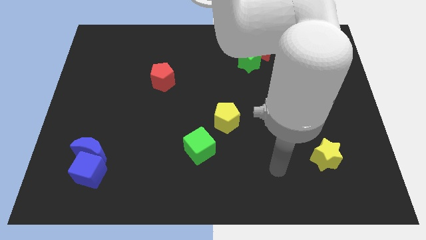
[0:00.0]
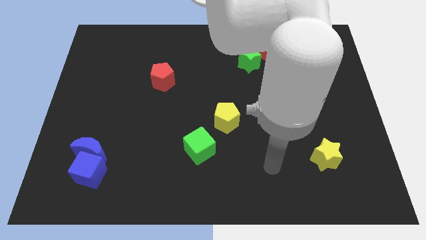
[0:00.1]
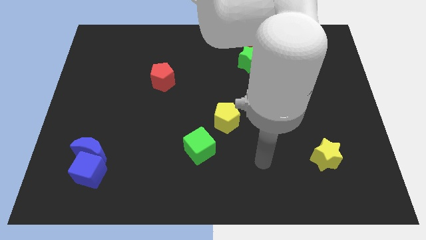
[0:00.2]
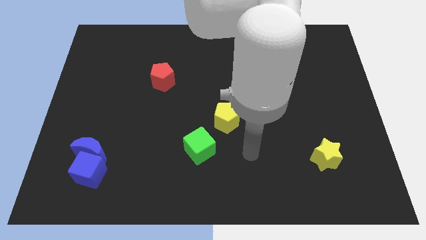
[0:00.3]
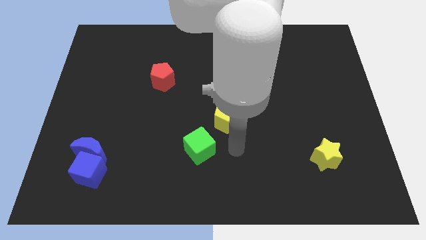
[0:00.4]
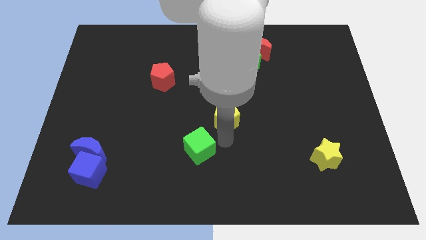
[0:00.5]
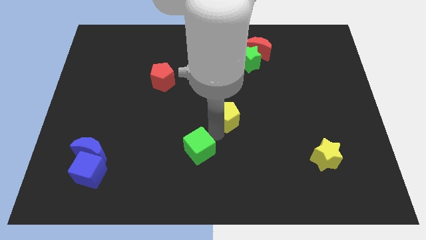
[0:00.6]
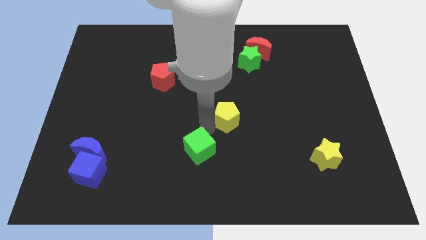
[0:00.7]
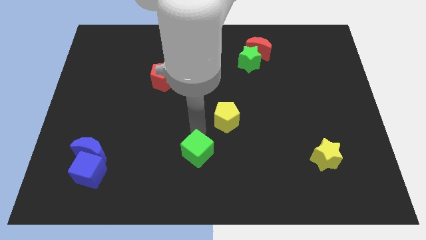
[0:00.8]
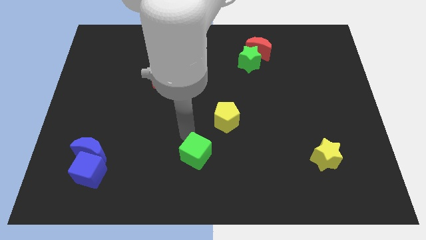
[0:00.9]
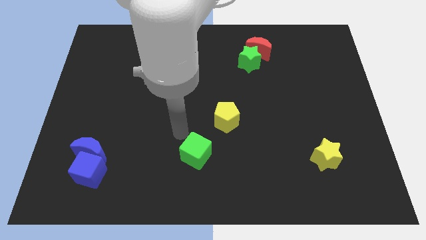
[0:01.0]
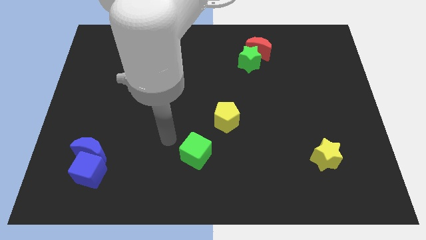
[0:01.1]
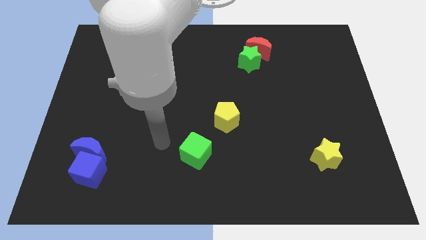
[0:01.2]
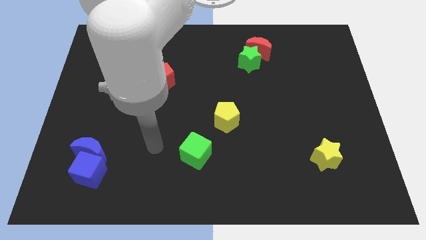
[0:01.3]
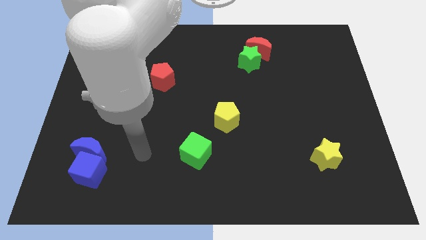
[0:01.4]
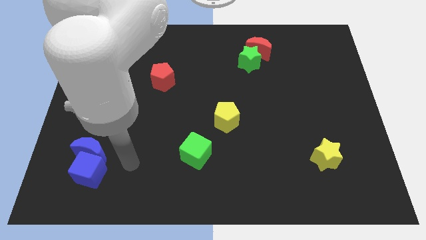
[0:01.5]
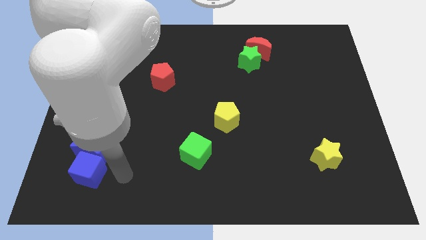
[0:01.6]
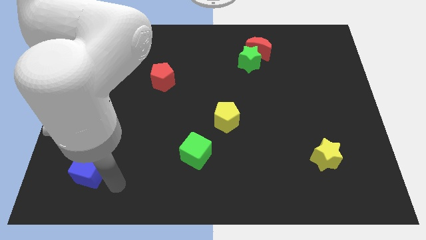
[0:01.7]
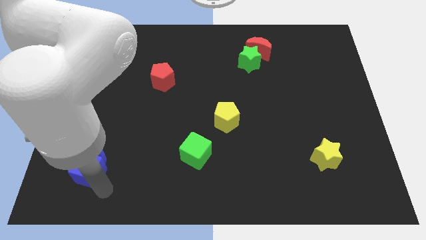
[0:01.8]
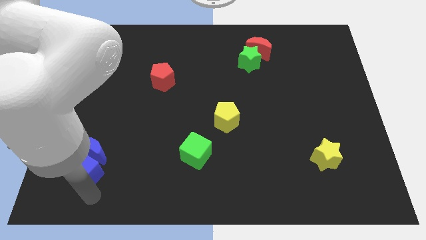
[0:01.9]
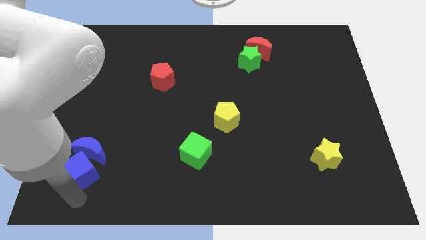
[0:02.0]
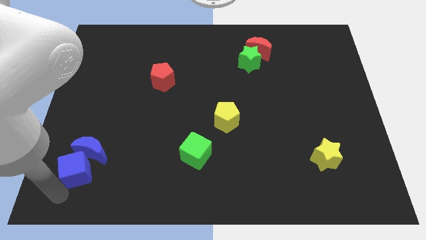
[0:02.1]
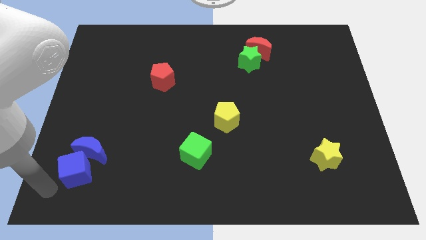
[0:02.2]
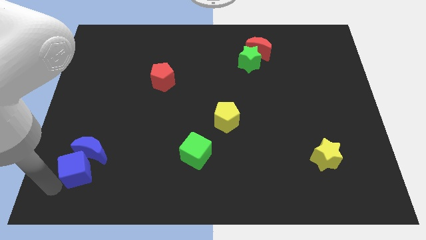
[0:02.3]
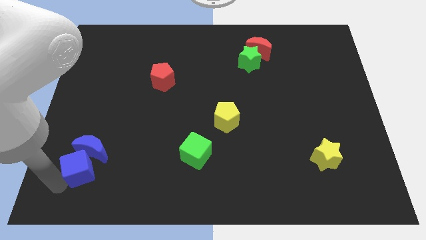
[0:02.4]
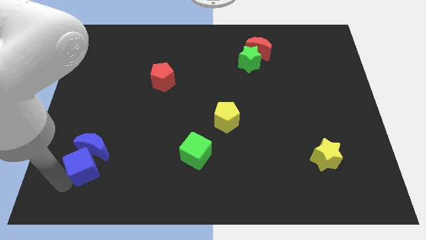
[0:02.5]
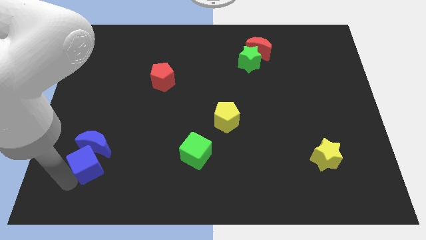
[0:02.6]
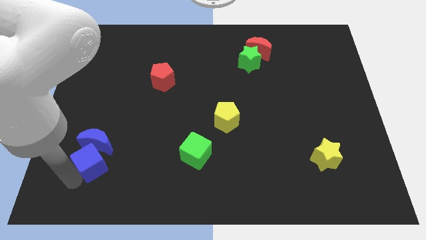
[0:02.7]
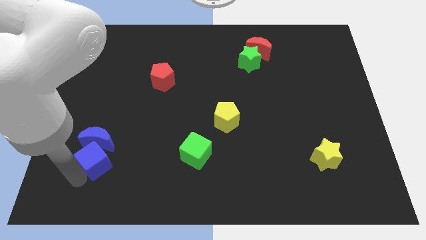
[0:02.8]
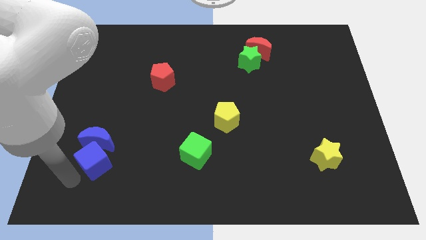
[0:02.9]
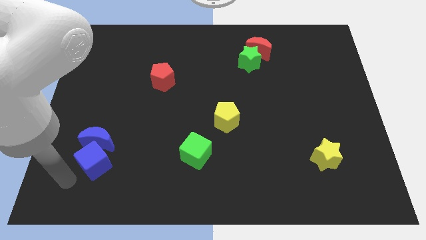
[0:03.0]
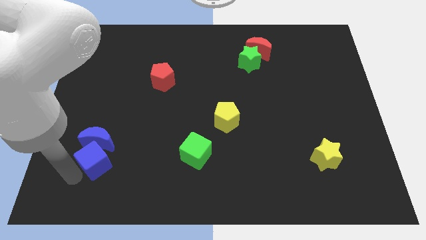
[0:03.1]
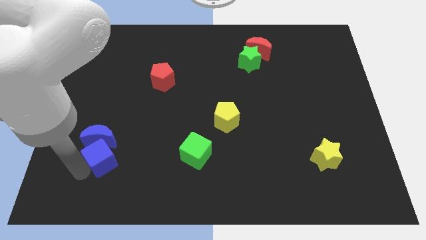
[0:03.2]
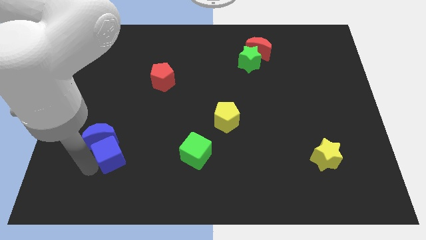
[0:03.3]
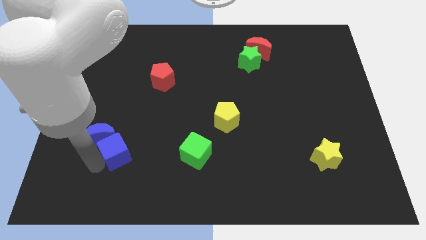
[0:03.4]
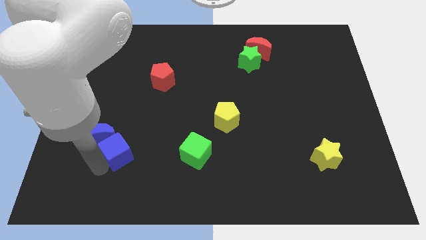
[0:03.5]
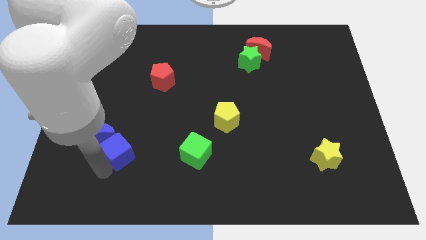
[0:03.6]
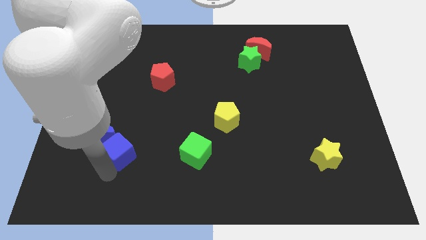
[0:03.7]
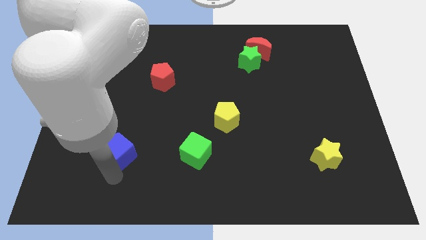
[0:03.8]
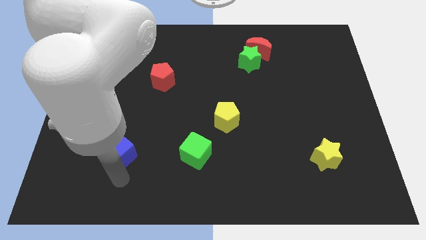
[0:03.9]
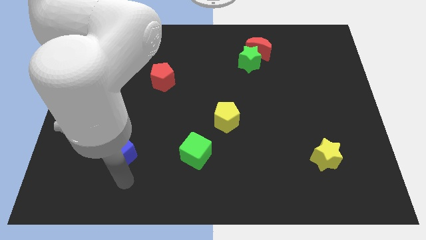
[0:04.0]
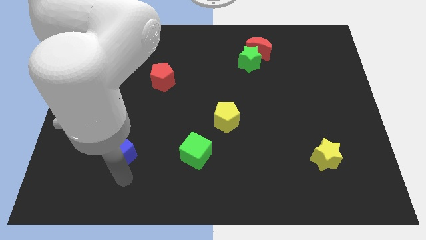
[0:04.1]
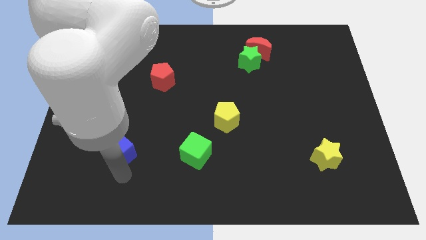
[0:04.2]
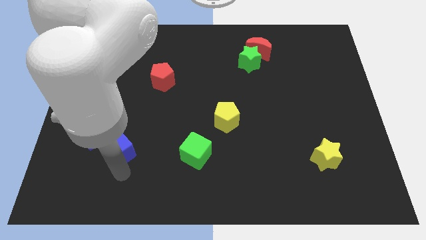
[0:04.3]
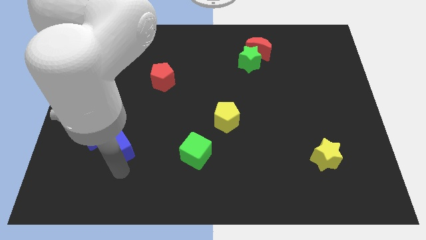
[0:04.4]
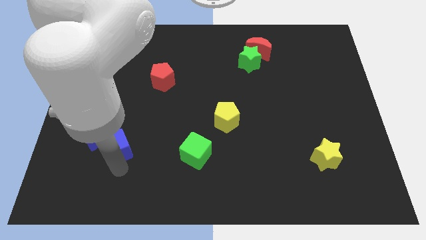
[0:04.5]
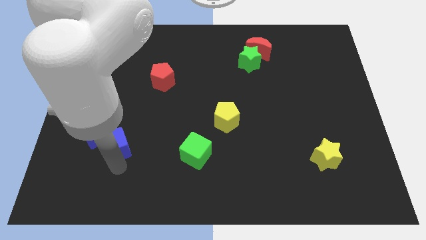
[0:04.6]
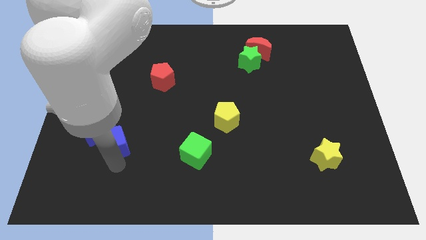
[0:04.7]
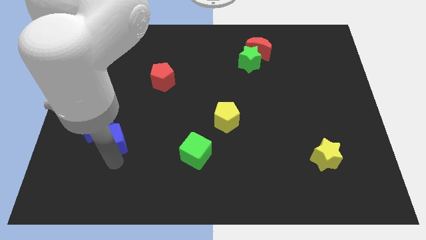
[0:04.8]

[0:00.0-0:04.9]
slide the blue cube a little bit upwards

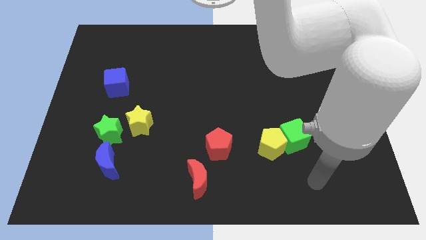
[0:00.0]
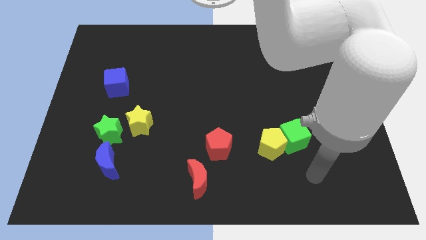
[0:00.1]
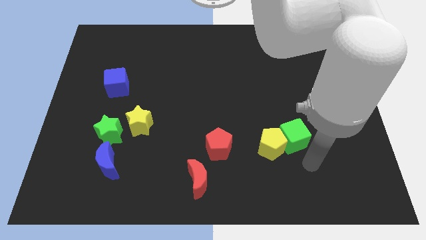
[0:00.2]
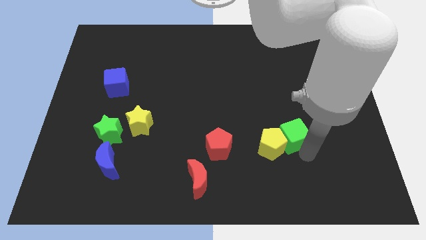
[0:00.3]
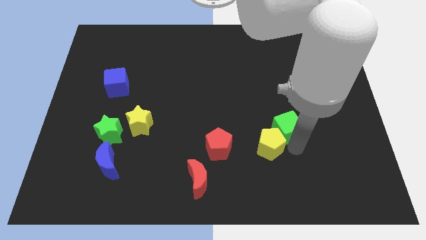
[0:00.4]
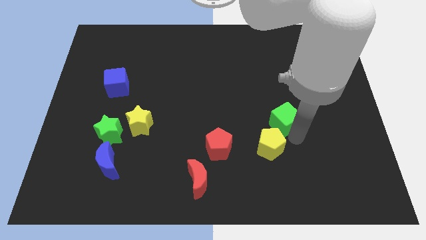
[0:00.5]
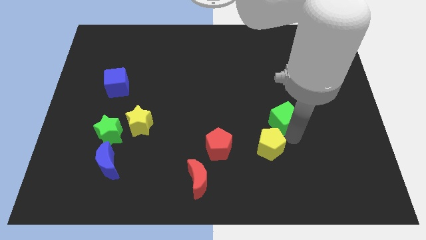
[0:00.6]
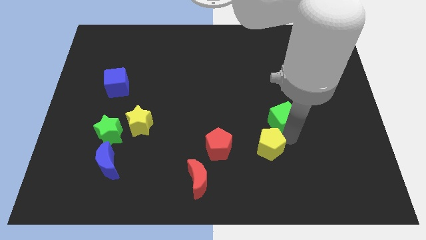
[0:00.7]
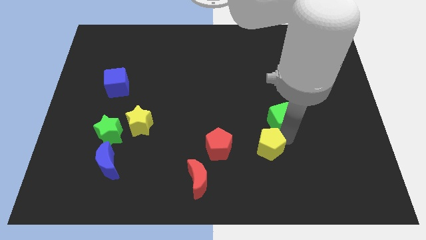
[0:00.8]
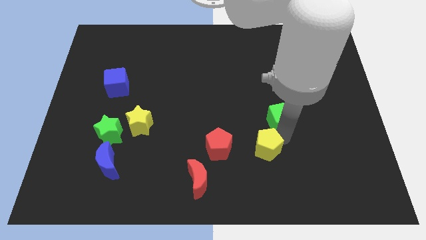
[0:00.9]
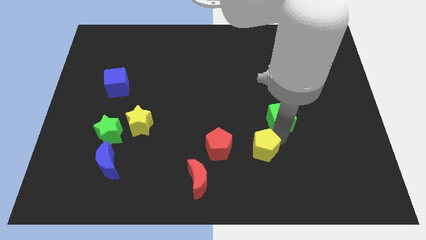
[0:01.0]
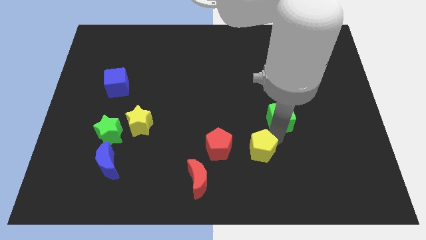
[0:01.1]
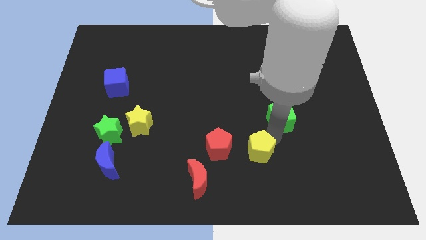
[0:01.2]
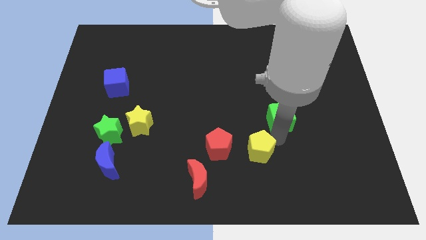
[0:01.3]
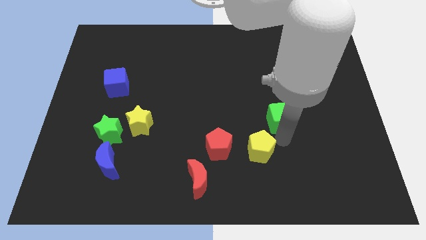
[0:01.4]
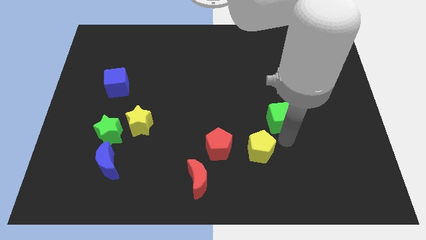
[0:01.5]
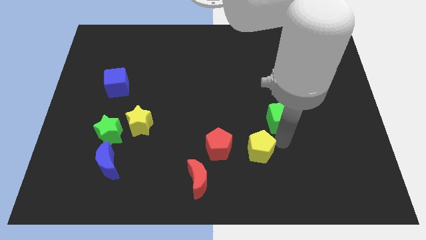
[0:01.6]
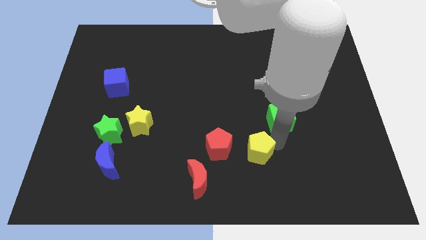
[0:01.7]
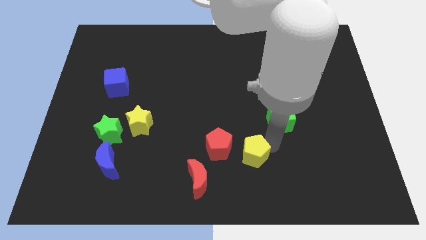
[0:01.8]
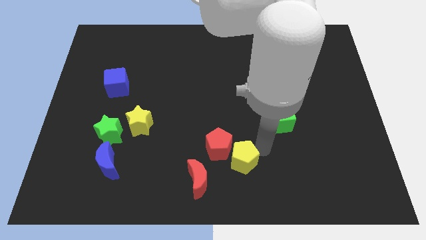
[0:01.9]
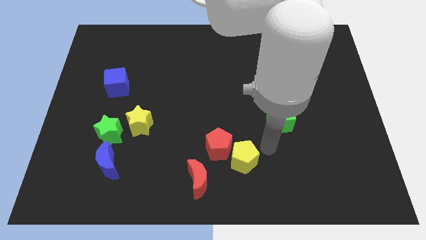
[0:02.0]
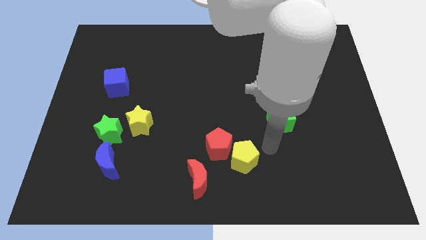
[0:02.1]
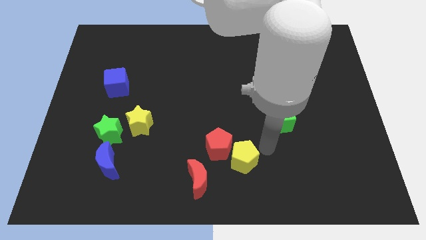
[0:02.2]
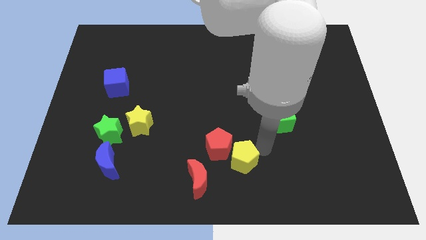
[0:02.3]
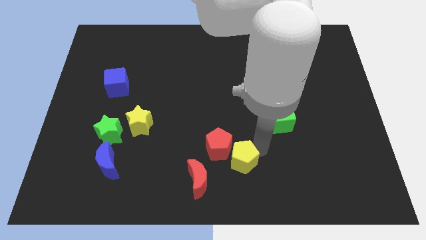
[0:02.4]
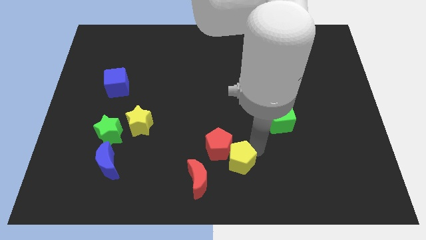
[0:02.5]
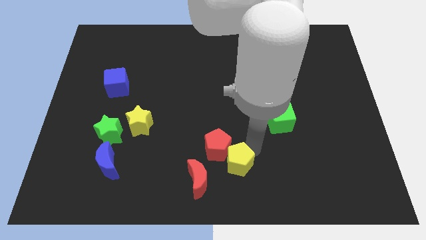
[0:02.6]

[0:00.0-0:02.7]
slightly slide the yellow pentagon to the left

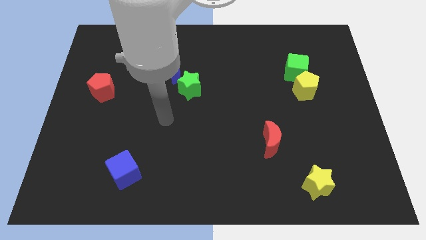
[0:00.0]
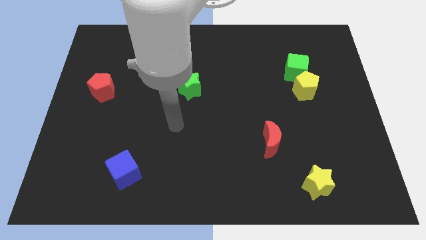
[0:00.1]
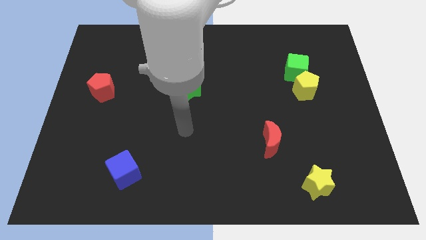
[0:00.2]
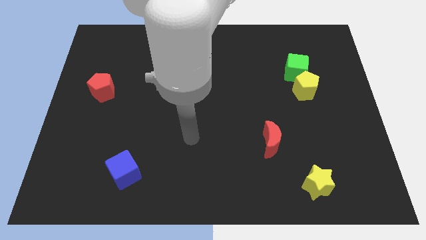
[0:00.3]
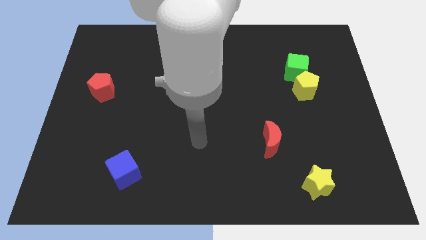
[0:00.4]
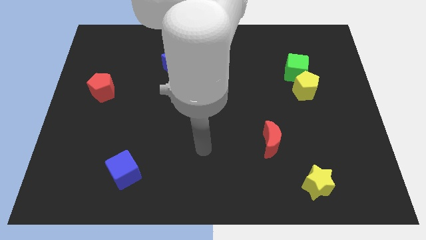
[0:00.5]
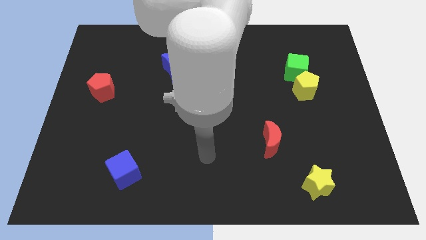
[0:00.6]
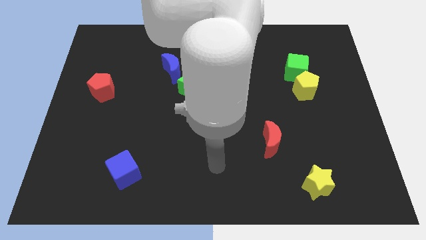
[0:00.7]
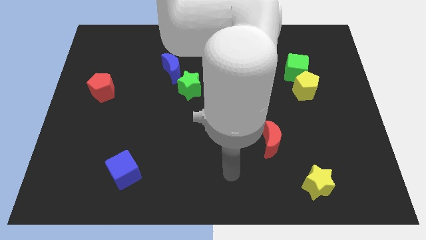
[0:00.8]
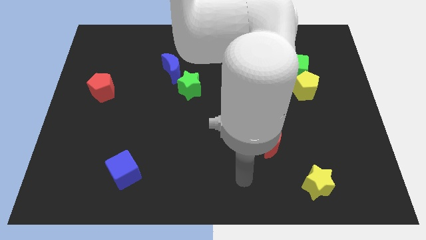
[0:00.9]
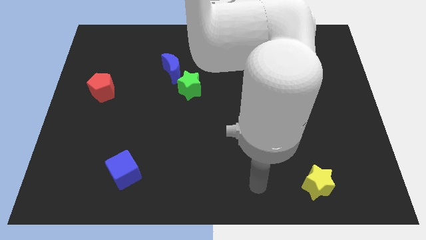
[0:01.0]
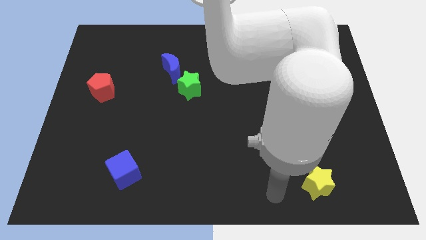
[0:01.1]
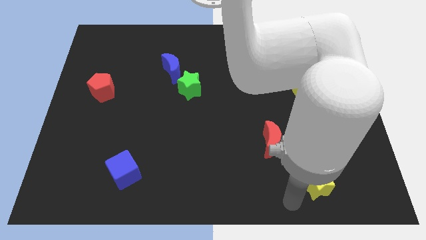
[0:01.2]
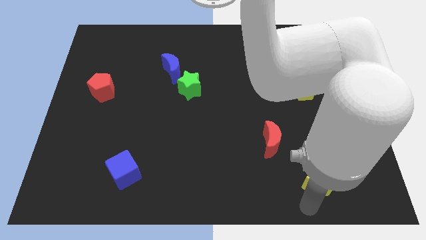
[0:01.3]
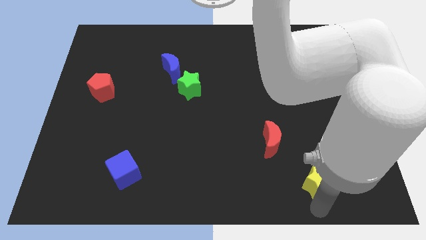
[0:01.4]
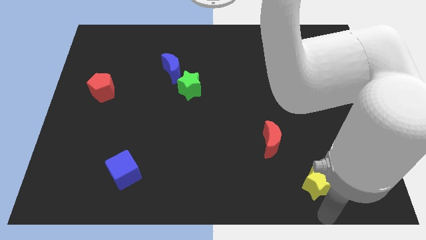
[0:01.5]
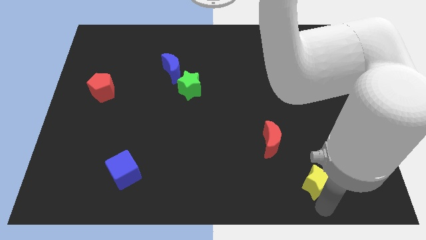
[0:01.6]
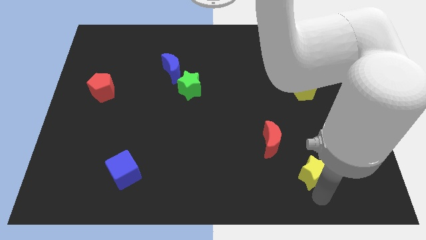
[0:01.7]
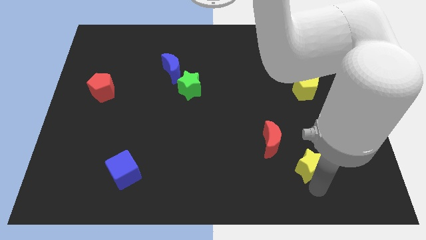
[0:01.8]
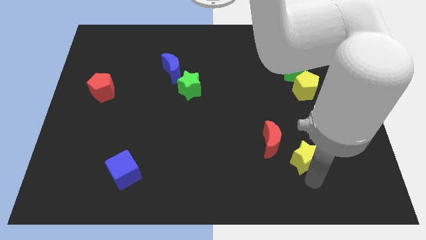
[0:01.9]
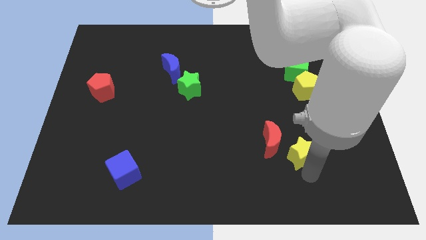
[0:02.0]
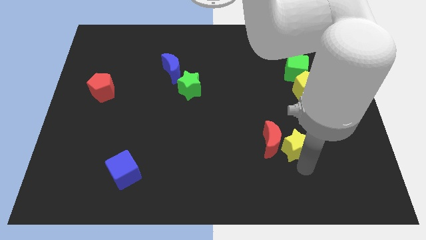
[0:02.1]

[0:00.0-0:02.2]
push the yellow star up somewhat
